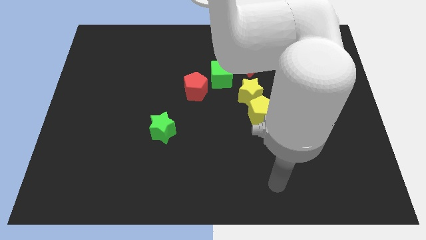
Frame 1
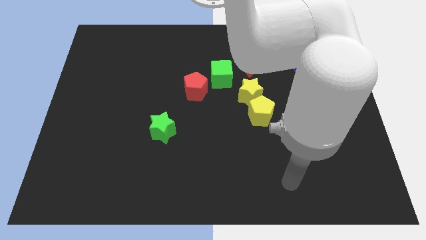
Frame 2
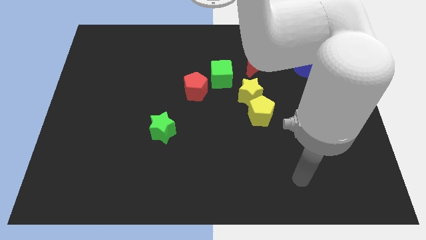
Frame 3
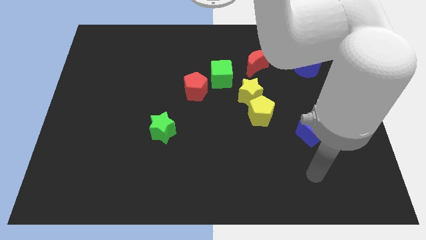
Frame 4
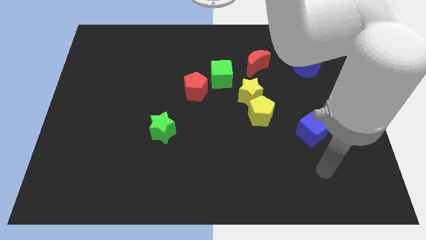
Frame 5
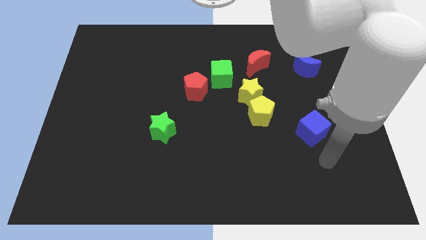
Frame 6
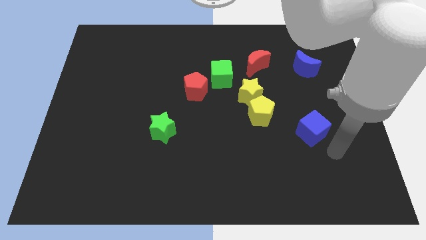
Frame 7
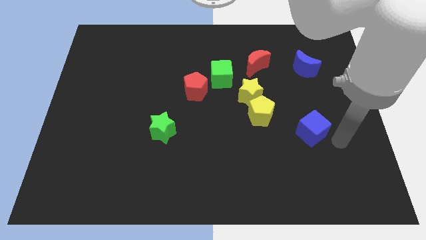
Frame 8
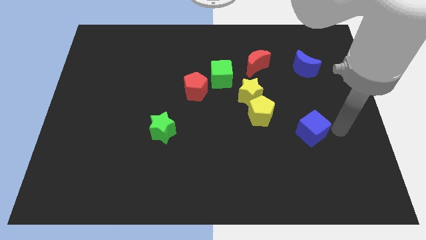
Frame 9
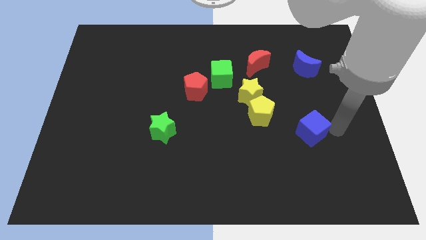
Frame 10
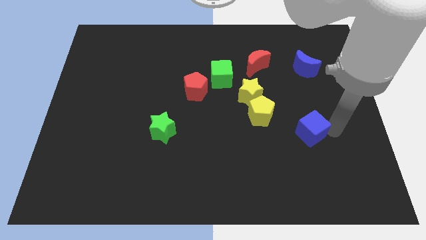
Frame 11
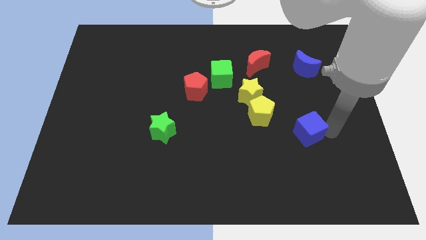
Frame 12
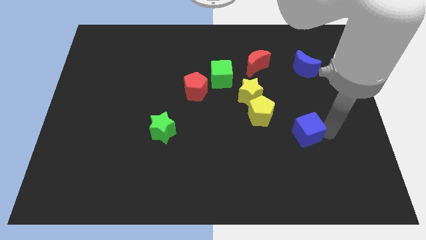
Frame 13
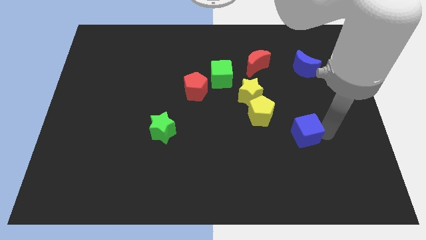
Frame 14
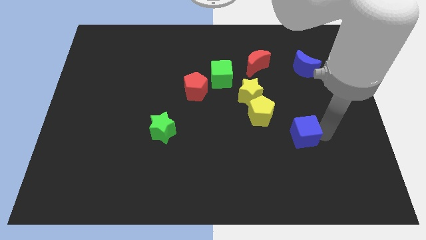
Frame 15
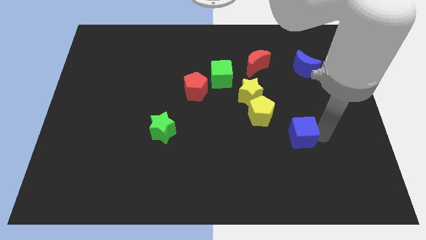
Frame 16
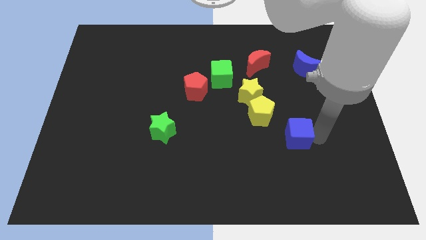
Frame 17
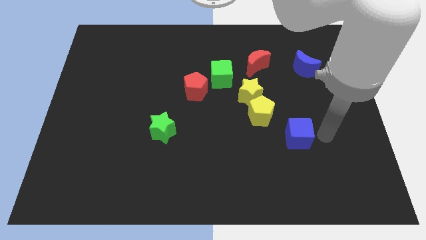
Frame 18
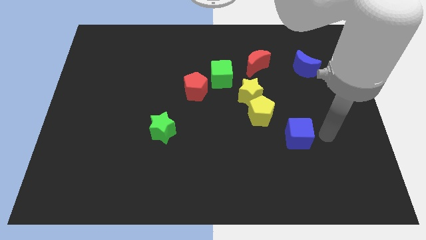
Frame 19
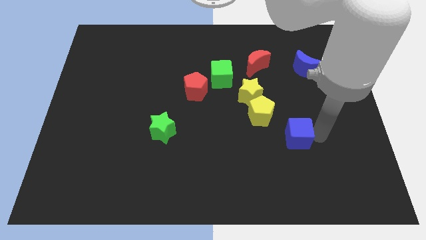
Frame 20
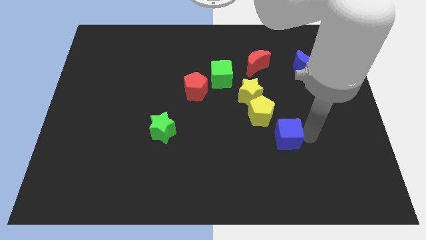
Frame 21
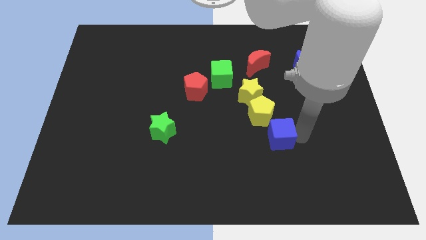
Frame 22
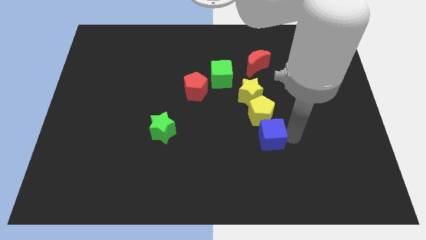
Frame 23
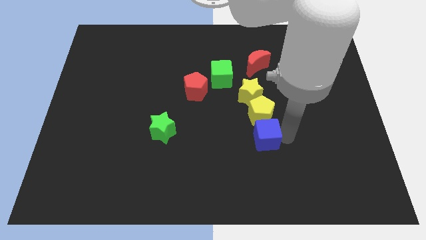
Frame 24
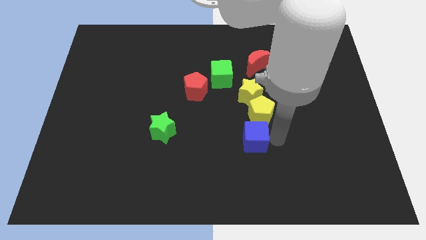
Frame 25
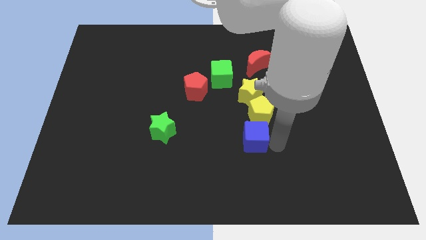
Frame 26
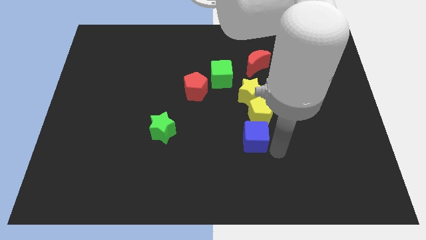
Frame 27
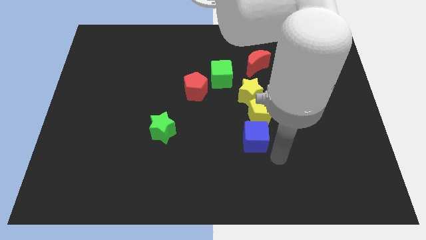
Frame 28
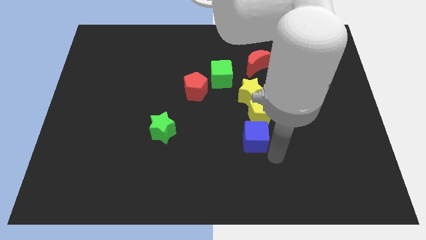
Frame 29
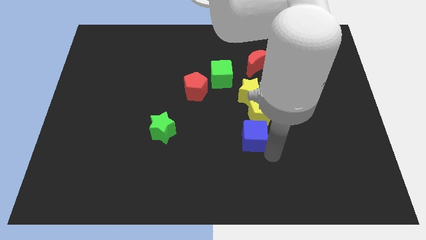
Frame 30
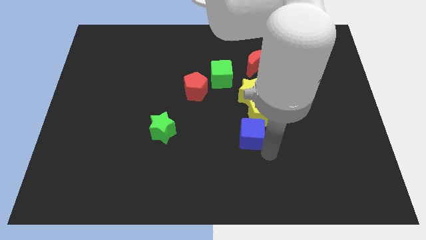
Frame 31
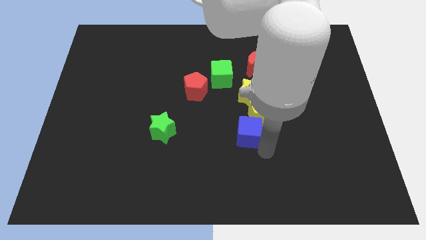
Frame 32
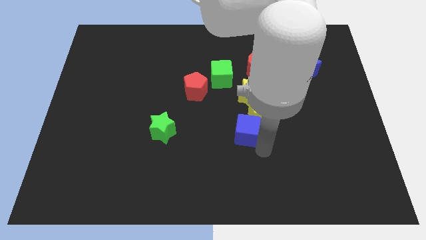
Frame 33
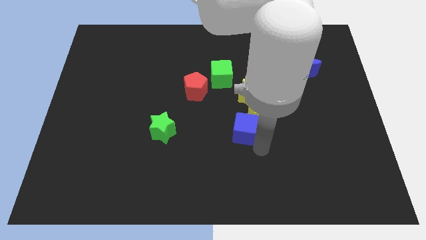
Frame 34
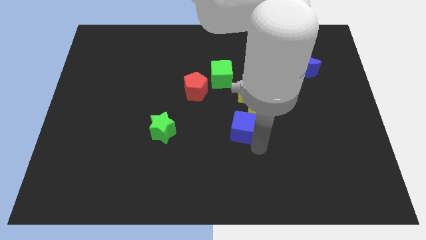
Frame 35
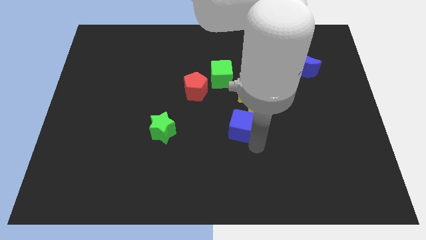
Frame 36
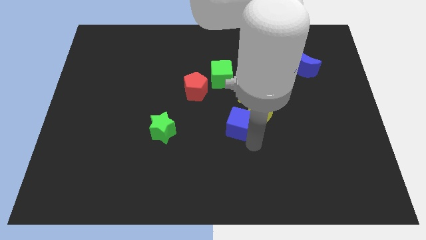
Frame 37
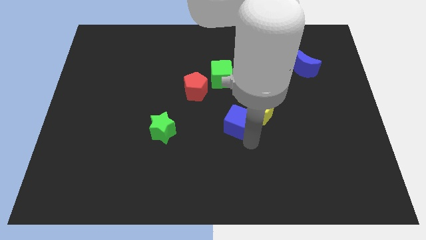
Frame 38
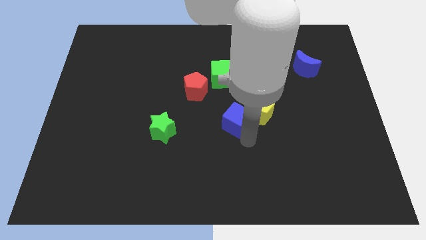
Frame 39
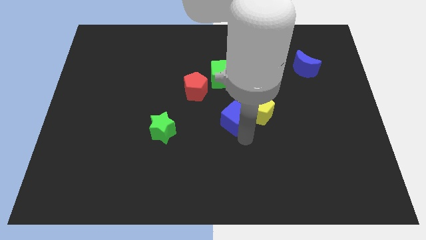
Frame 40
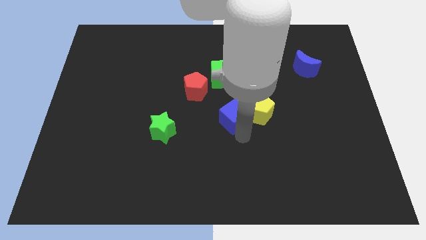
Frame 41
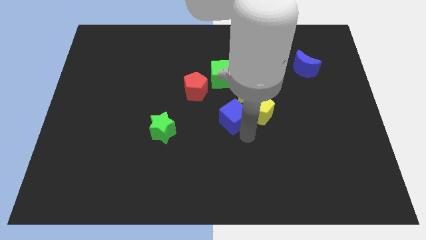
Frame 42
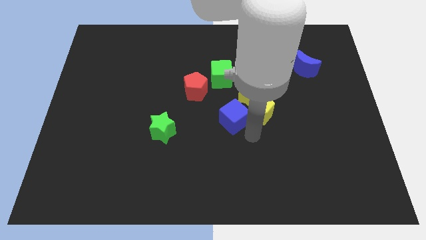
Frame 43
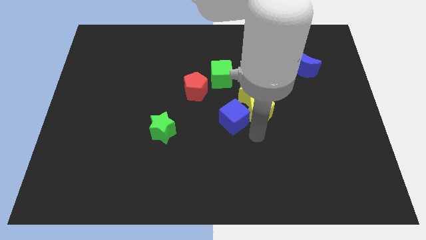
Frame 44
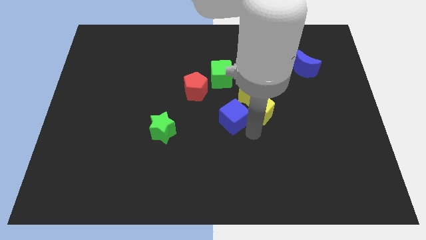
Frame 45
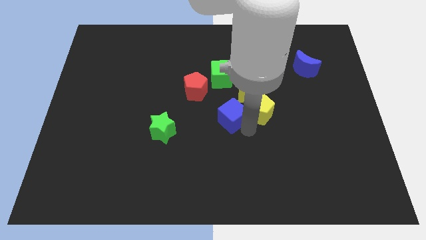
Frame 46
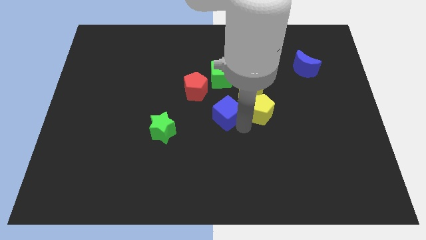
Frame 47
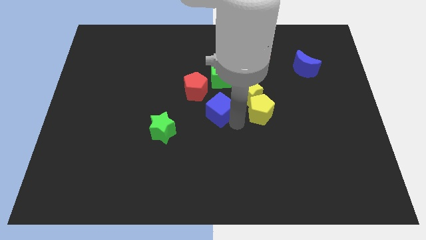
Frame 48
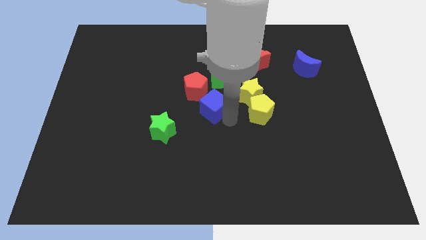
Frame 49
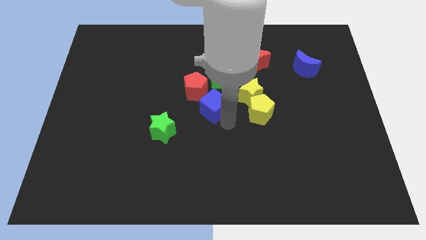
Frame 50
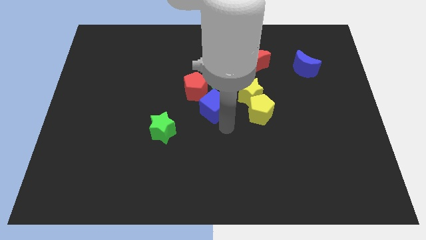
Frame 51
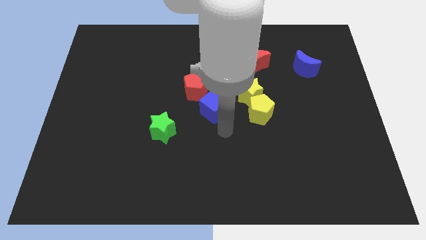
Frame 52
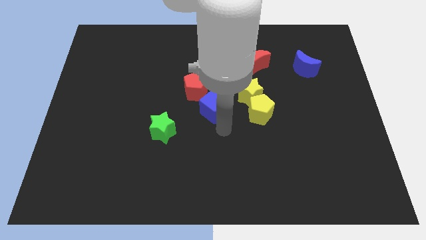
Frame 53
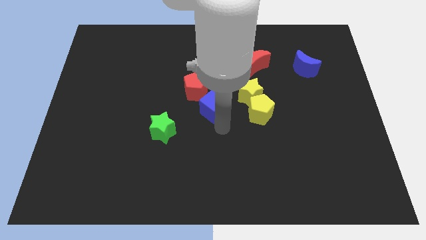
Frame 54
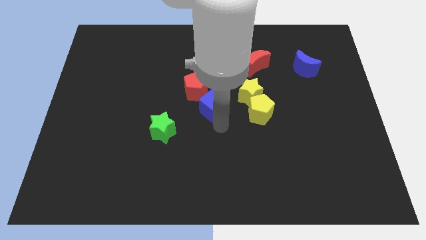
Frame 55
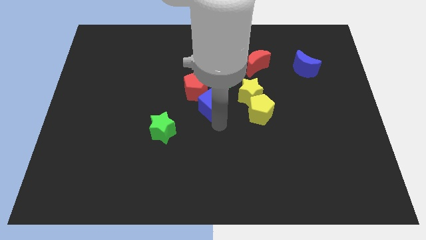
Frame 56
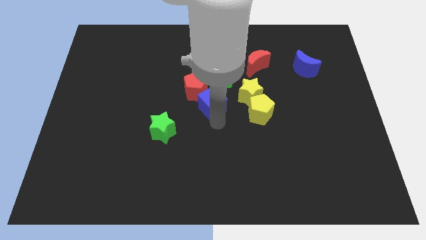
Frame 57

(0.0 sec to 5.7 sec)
push the blue cube towards the red pentagon

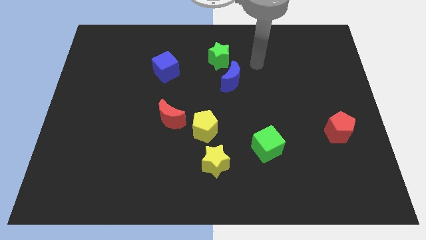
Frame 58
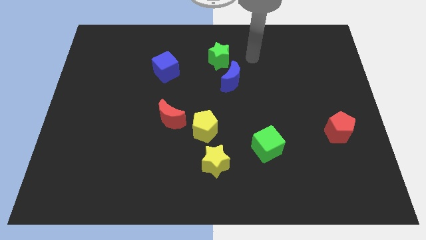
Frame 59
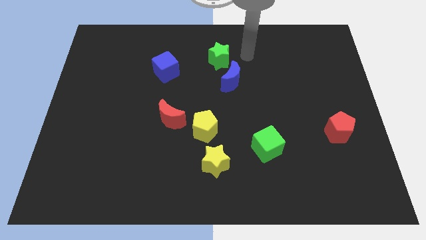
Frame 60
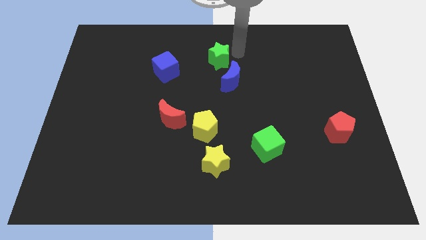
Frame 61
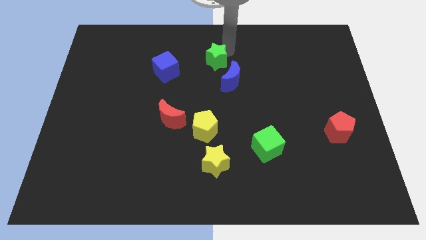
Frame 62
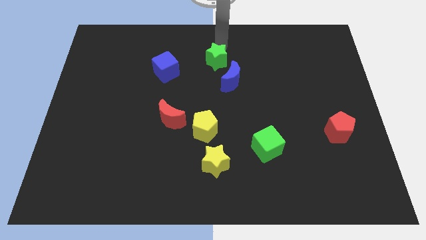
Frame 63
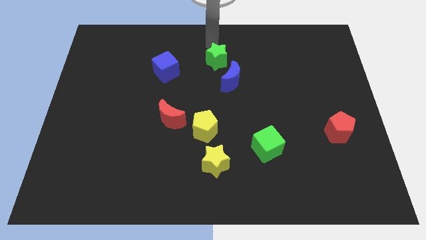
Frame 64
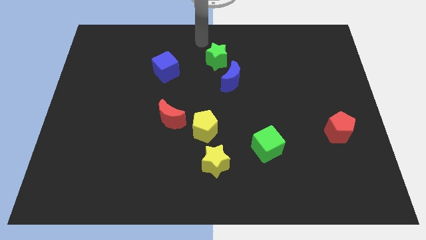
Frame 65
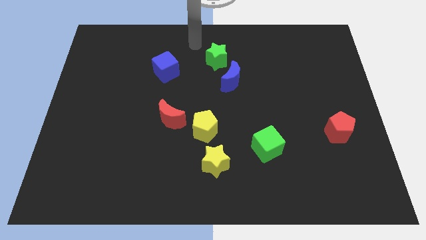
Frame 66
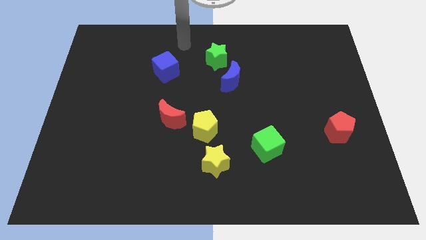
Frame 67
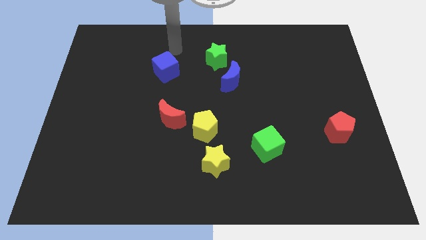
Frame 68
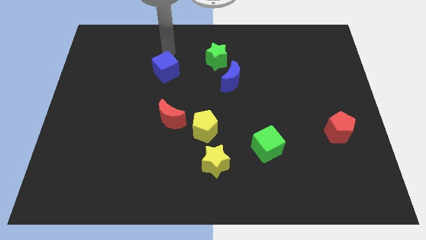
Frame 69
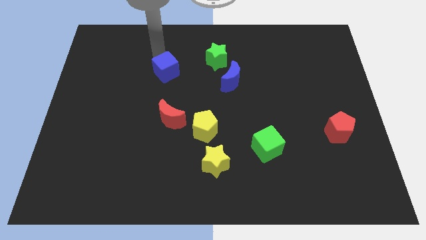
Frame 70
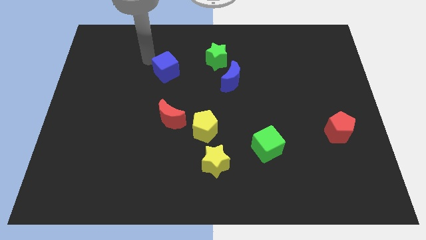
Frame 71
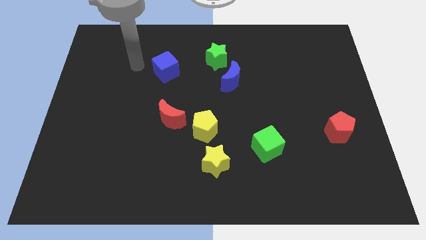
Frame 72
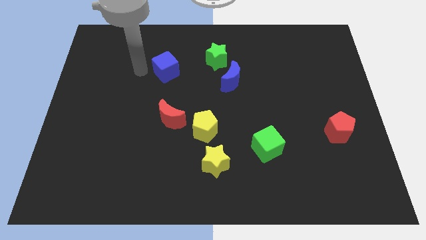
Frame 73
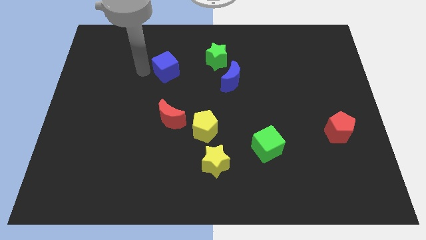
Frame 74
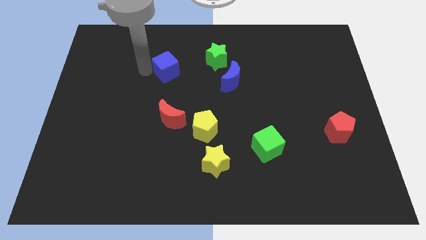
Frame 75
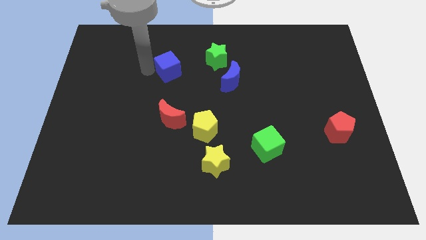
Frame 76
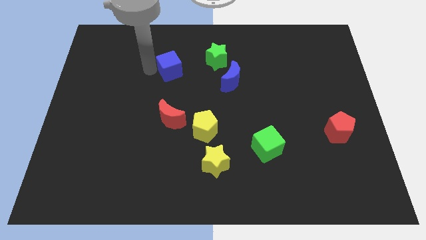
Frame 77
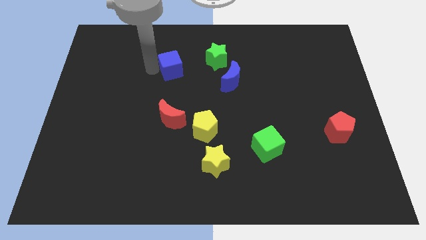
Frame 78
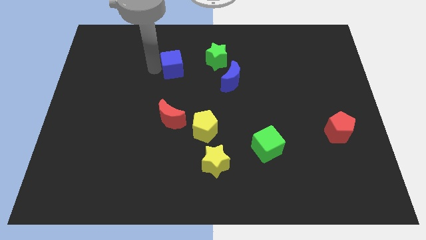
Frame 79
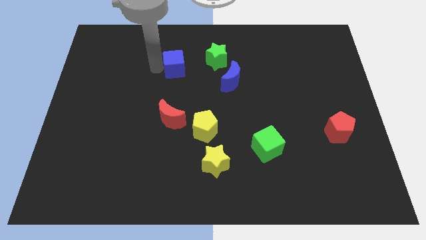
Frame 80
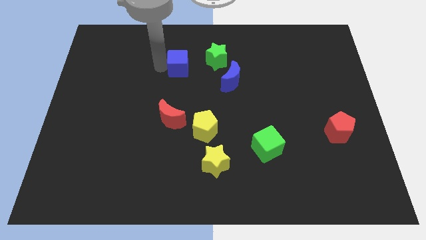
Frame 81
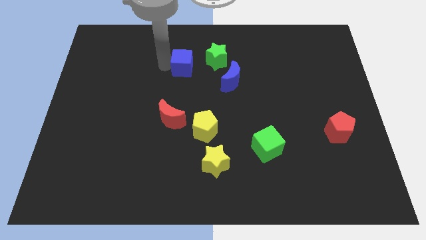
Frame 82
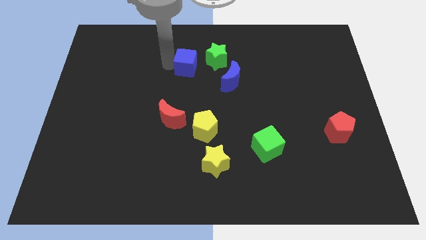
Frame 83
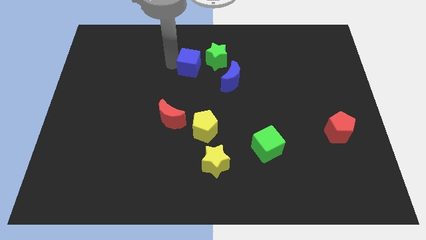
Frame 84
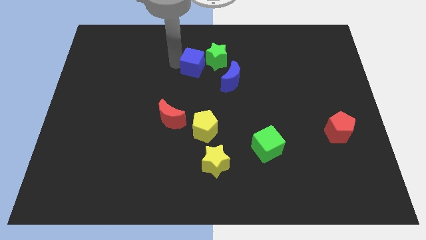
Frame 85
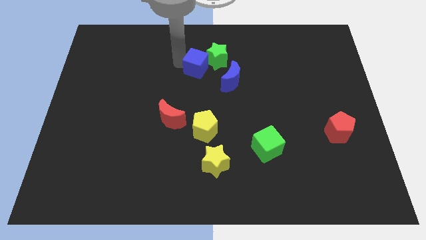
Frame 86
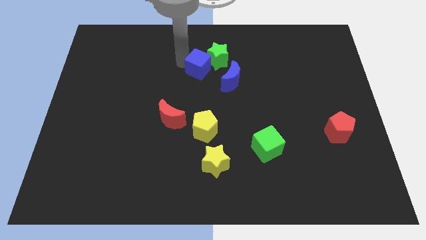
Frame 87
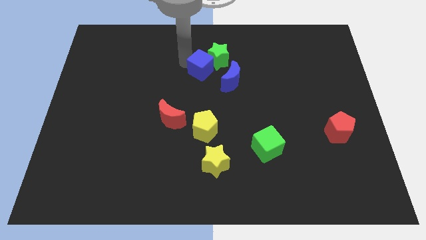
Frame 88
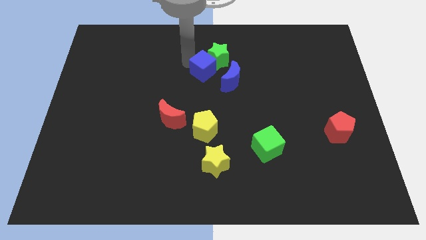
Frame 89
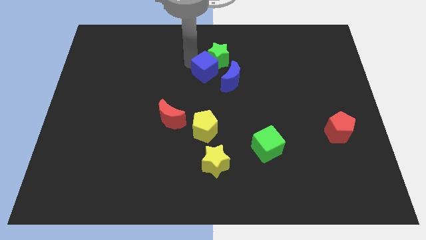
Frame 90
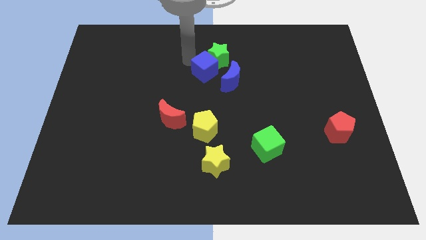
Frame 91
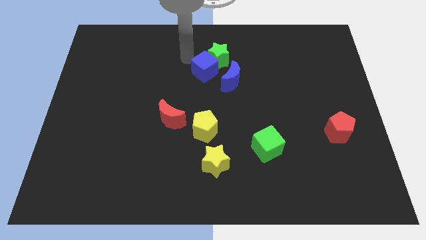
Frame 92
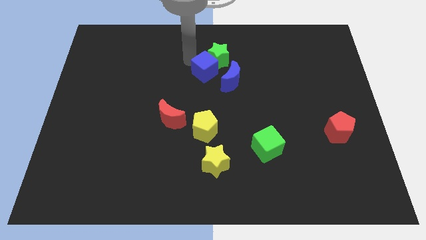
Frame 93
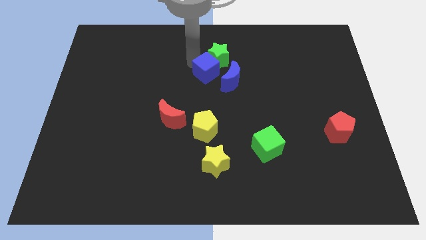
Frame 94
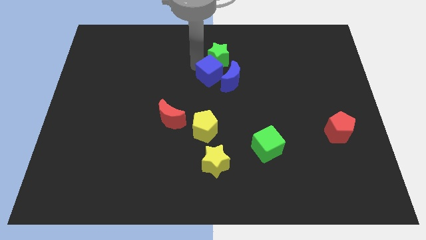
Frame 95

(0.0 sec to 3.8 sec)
move the blue cube towards the blue moon
